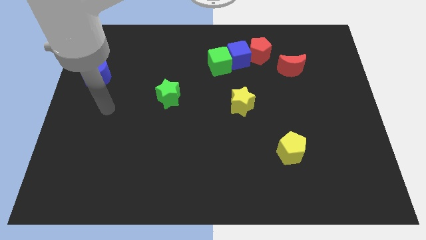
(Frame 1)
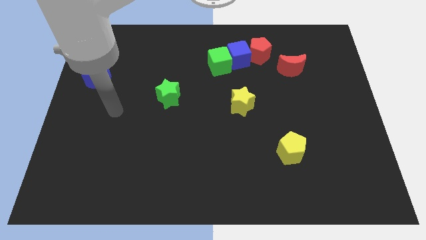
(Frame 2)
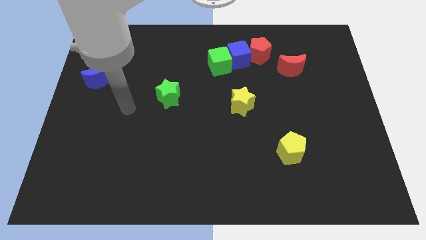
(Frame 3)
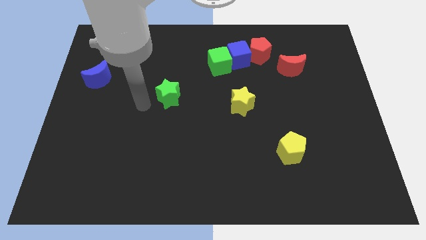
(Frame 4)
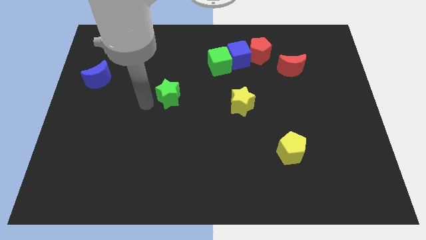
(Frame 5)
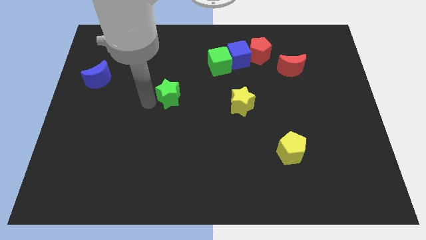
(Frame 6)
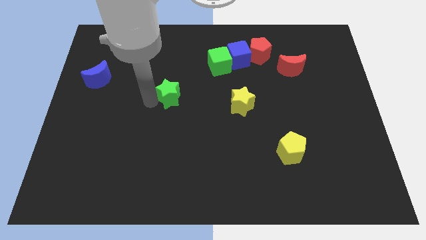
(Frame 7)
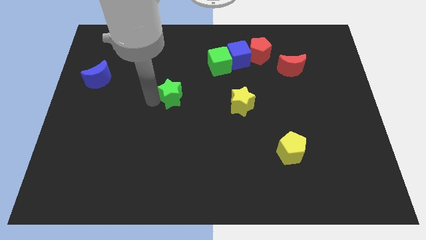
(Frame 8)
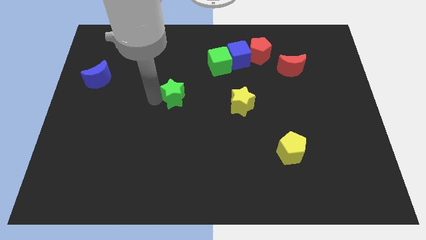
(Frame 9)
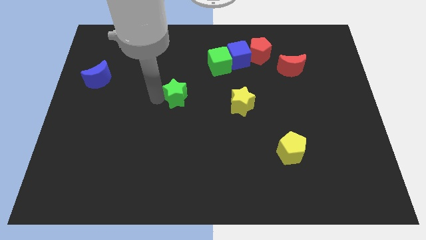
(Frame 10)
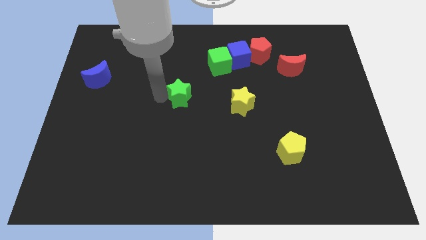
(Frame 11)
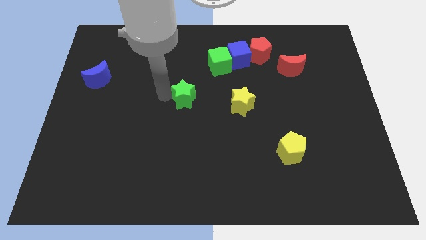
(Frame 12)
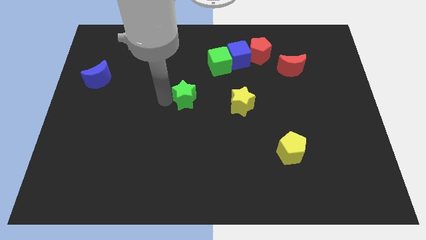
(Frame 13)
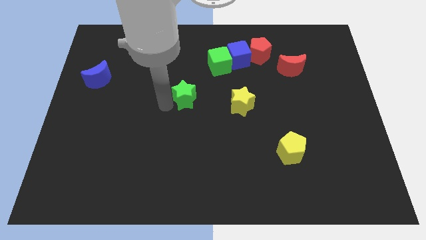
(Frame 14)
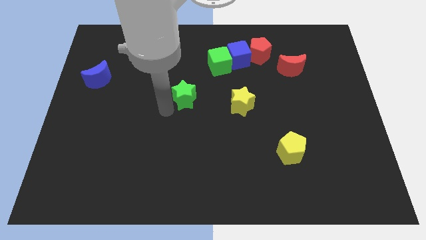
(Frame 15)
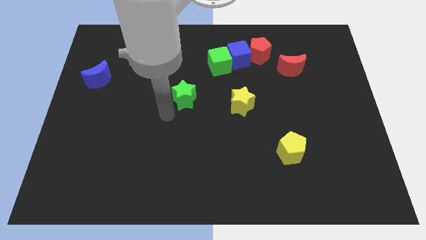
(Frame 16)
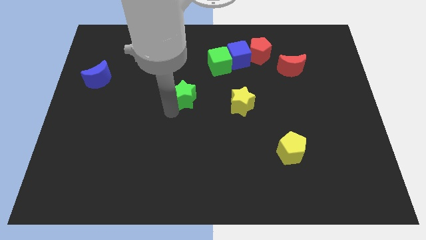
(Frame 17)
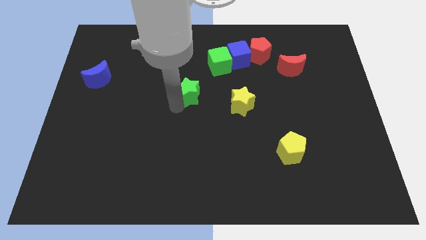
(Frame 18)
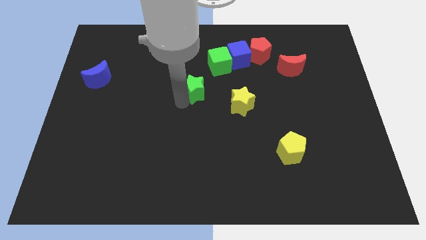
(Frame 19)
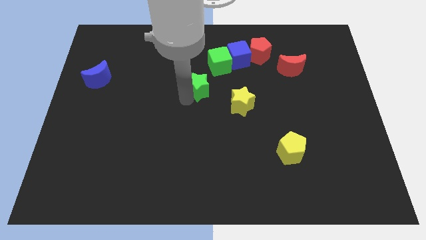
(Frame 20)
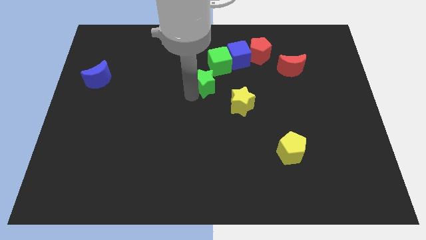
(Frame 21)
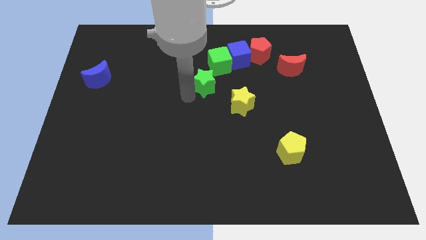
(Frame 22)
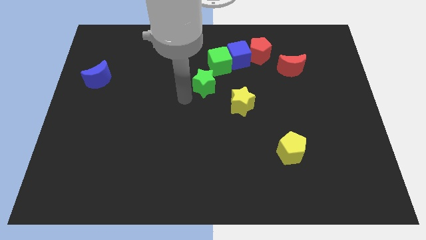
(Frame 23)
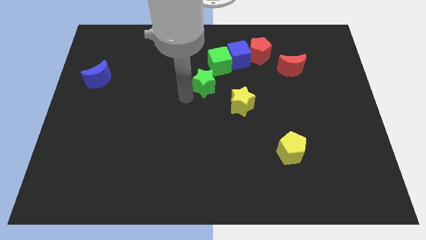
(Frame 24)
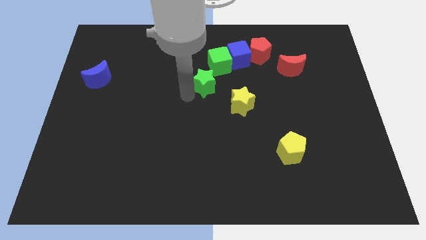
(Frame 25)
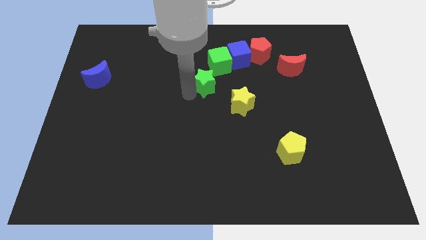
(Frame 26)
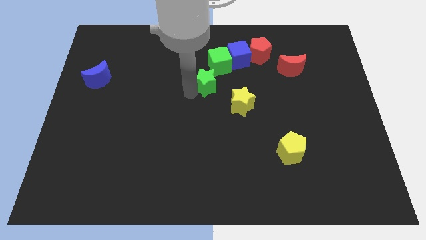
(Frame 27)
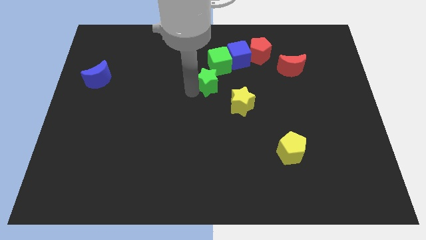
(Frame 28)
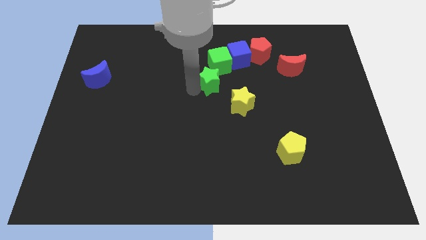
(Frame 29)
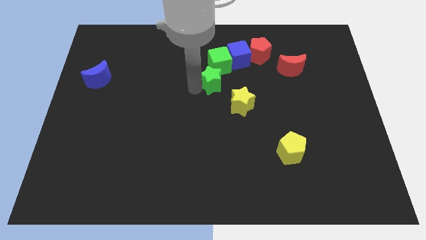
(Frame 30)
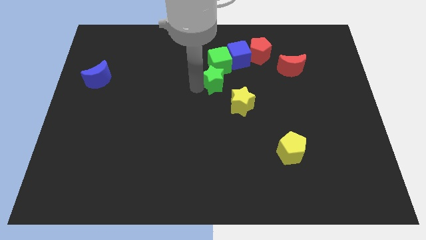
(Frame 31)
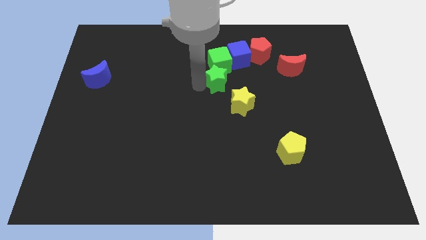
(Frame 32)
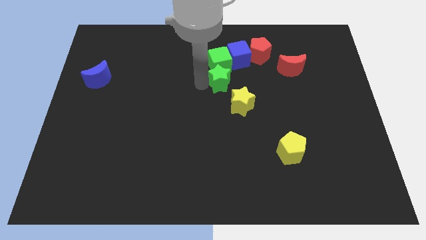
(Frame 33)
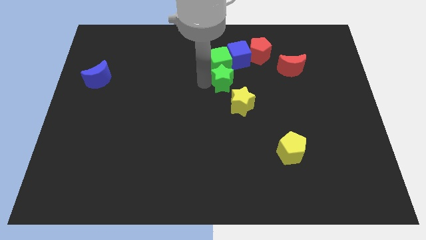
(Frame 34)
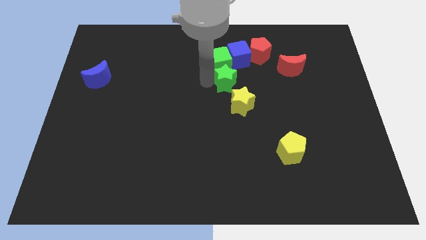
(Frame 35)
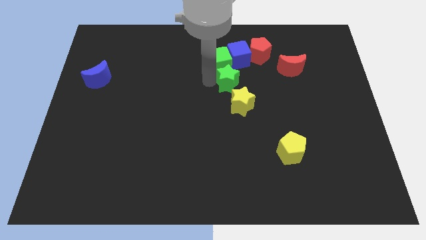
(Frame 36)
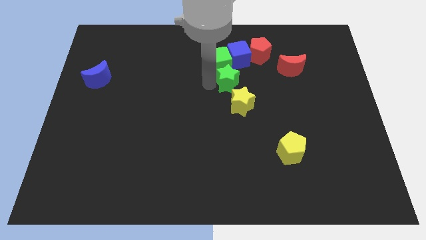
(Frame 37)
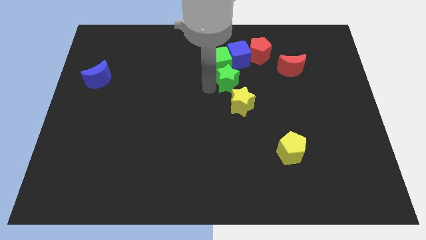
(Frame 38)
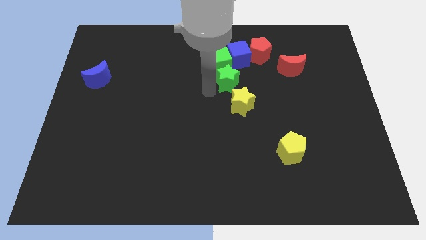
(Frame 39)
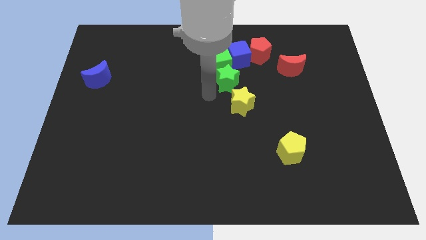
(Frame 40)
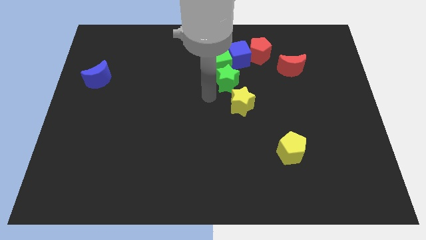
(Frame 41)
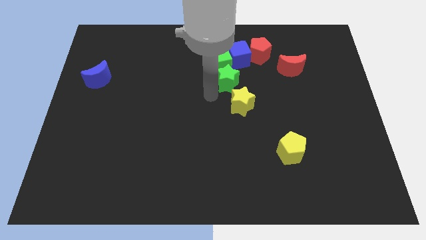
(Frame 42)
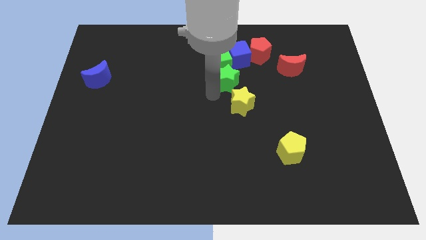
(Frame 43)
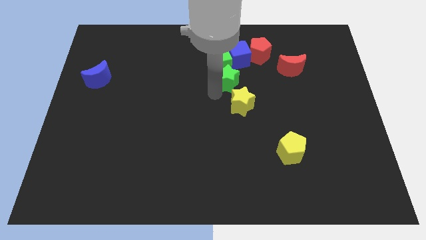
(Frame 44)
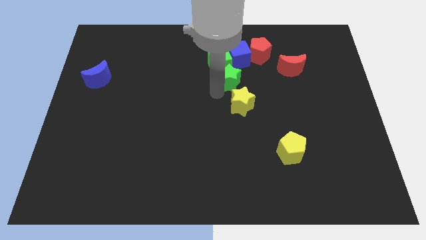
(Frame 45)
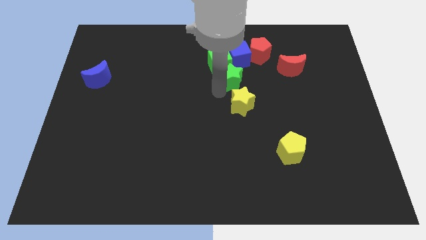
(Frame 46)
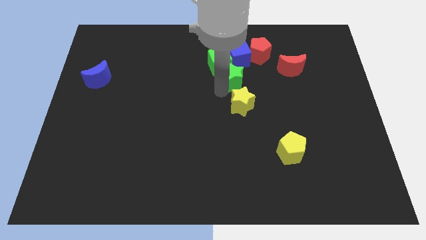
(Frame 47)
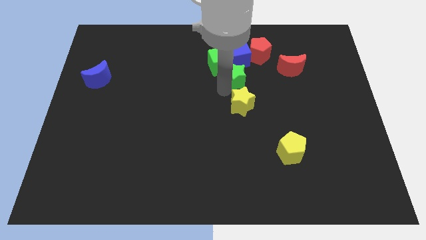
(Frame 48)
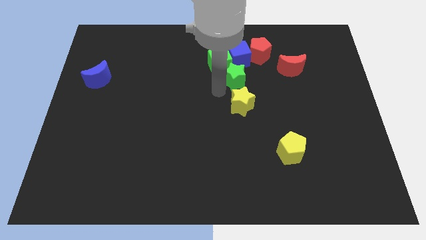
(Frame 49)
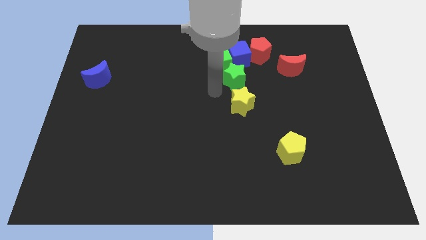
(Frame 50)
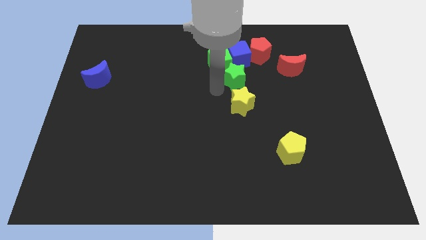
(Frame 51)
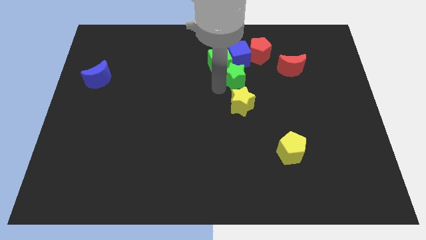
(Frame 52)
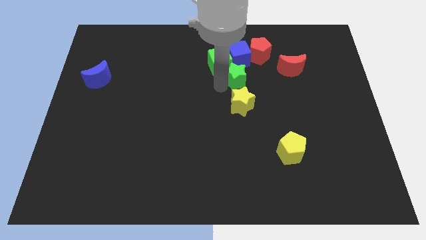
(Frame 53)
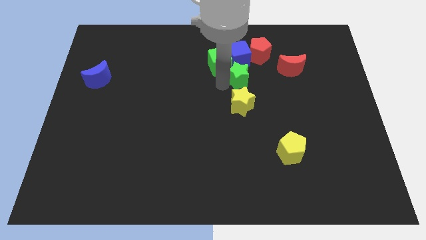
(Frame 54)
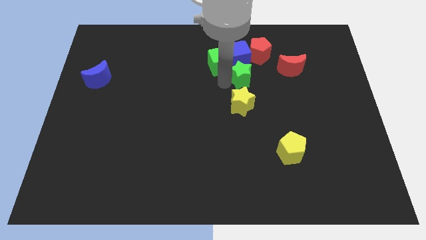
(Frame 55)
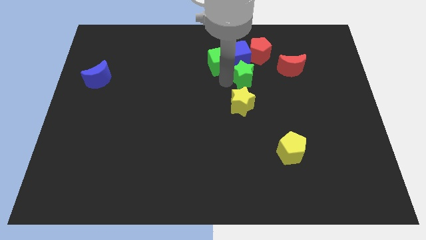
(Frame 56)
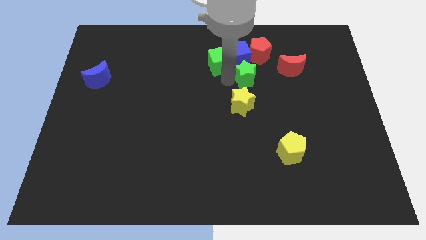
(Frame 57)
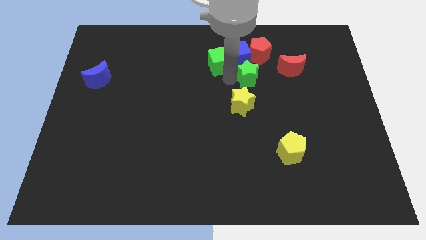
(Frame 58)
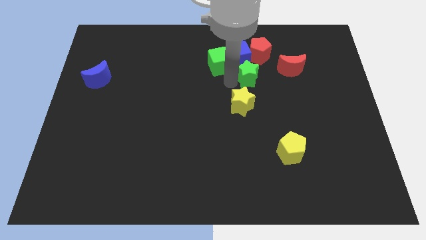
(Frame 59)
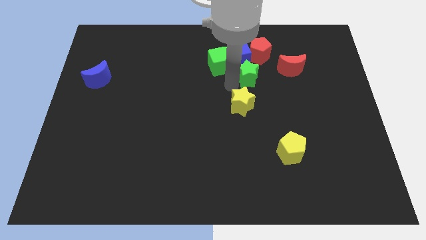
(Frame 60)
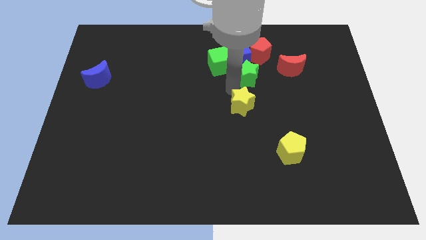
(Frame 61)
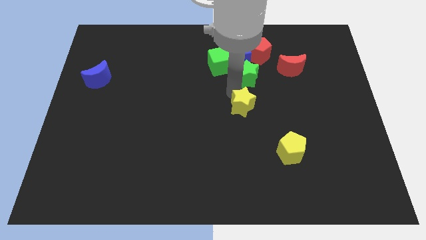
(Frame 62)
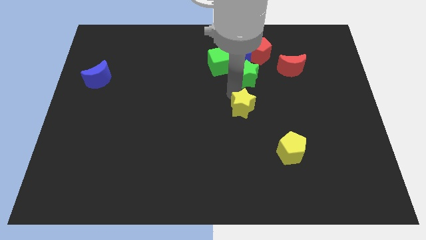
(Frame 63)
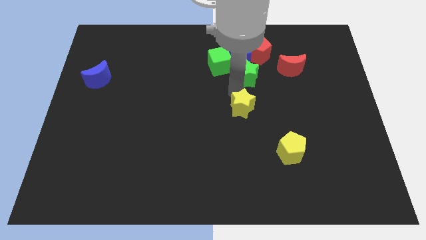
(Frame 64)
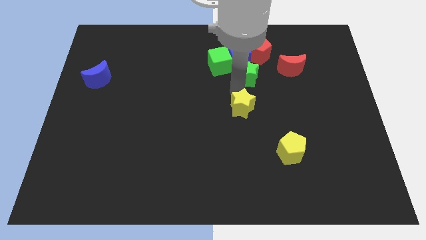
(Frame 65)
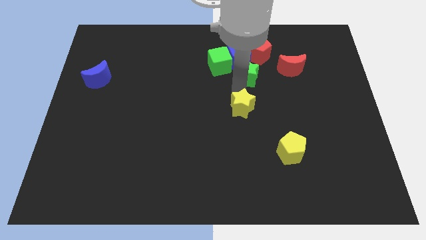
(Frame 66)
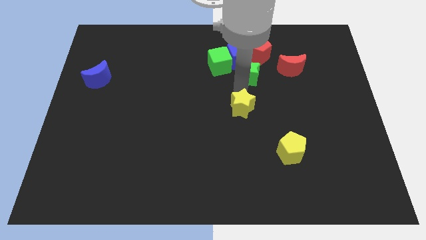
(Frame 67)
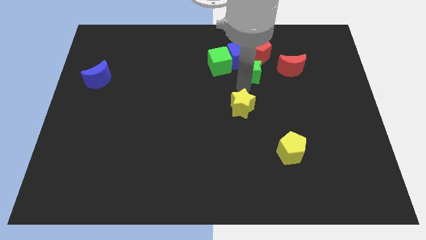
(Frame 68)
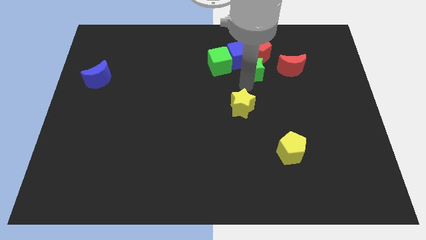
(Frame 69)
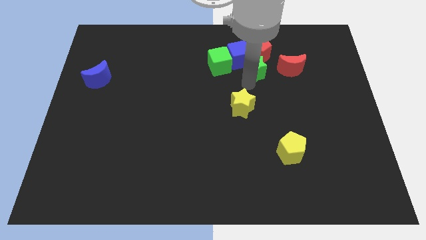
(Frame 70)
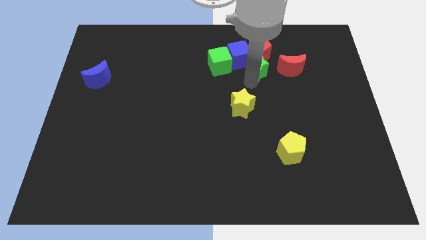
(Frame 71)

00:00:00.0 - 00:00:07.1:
put the green star next to the red pentagon

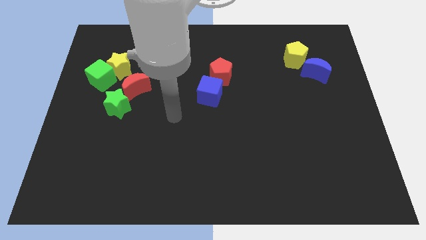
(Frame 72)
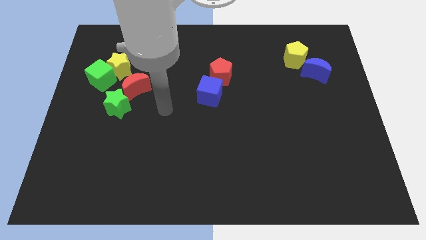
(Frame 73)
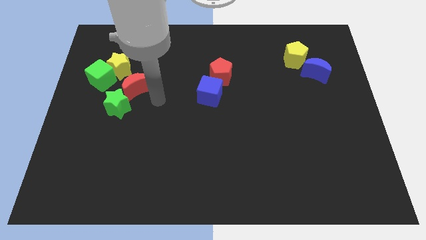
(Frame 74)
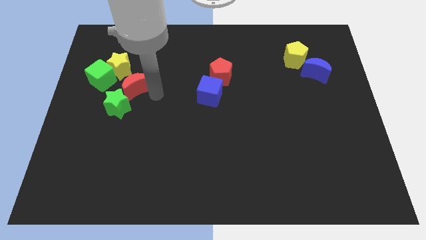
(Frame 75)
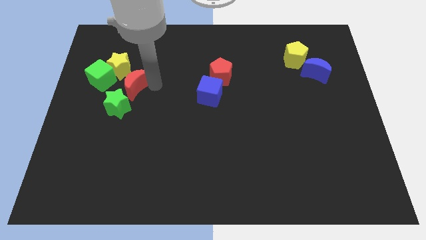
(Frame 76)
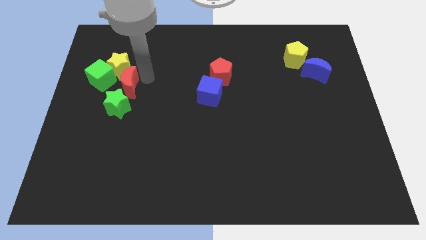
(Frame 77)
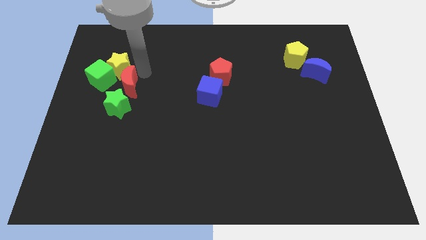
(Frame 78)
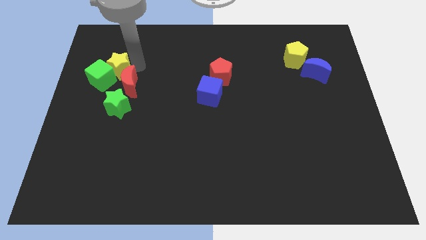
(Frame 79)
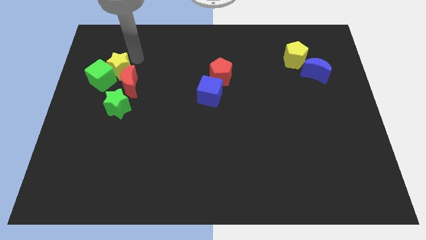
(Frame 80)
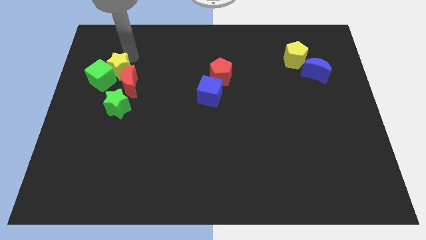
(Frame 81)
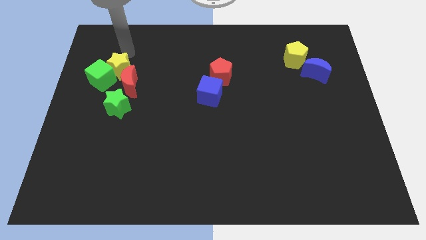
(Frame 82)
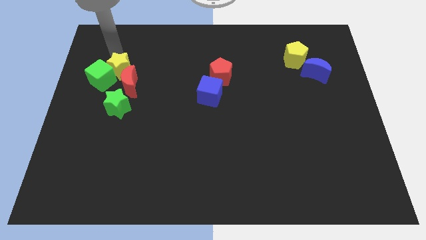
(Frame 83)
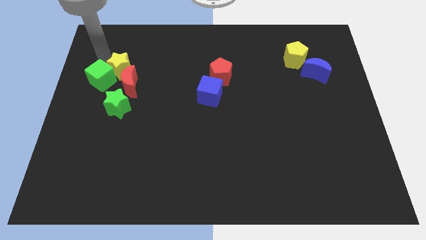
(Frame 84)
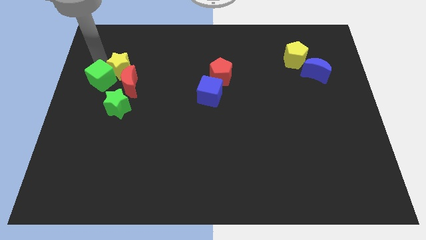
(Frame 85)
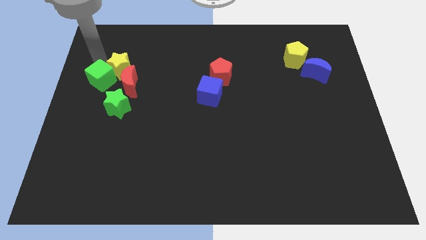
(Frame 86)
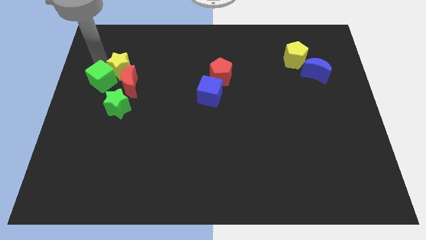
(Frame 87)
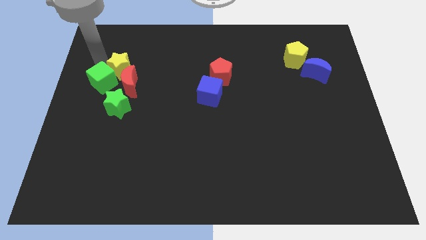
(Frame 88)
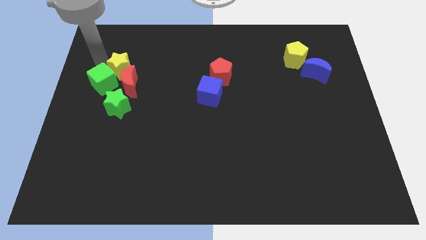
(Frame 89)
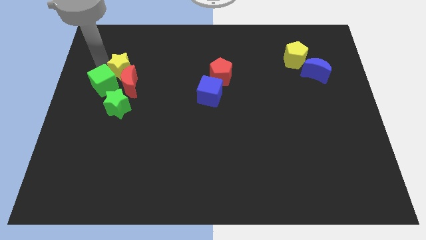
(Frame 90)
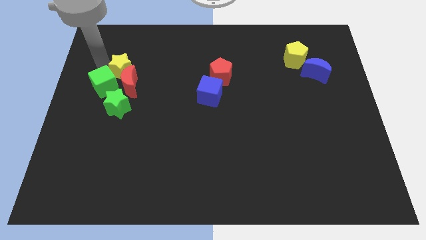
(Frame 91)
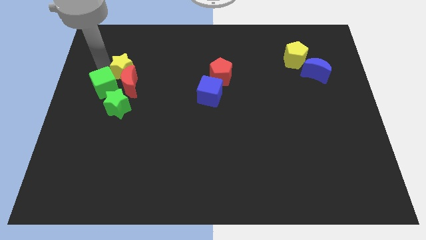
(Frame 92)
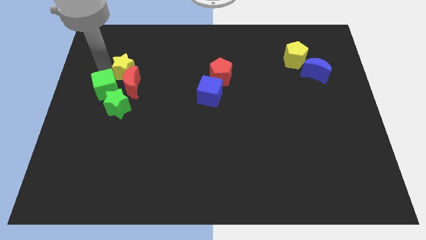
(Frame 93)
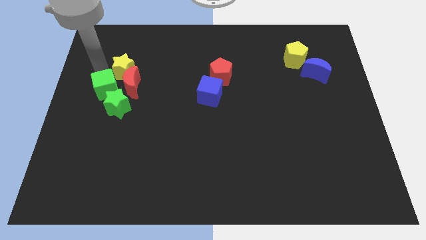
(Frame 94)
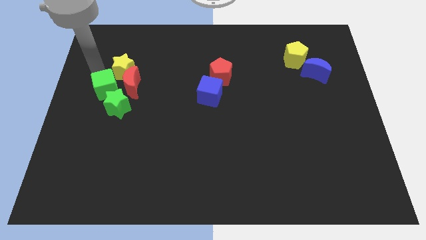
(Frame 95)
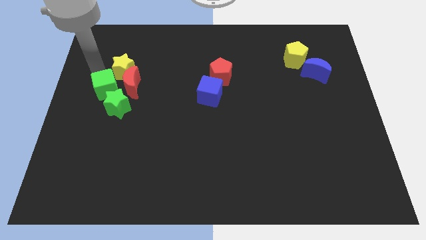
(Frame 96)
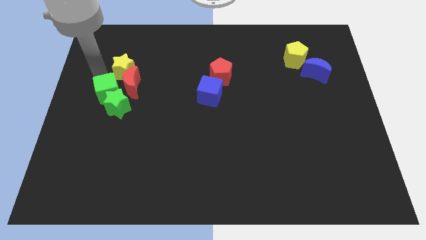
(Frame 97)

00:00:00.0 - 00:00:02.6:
move the green cube close to the green star
